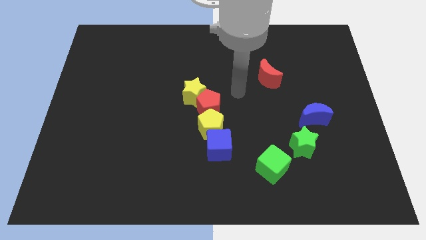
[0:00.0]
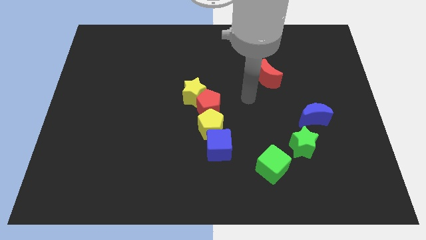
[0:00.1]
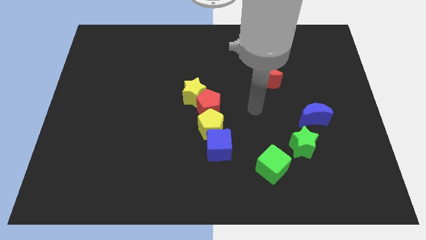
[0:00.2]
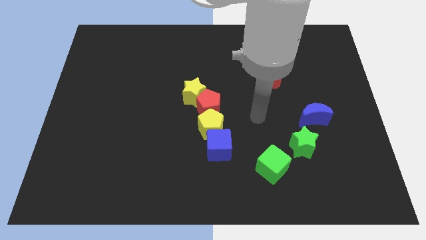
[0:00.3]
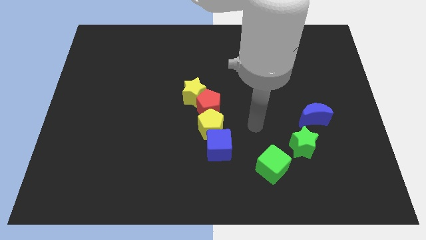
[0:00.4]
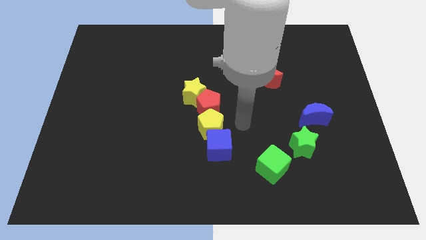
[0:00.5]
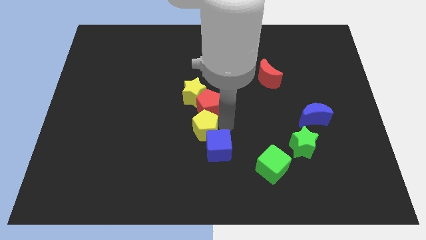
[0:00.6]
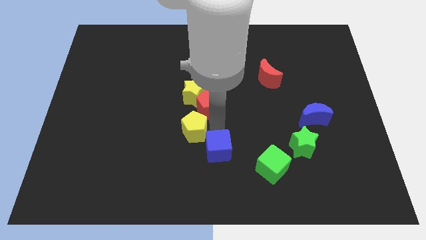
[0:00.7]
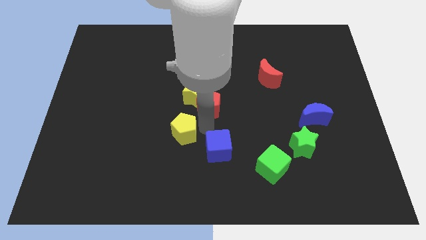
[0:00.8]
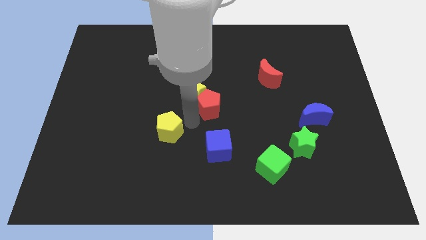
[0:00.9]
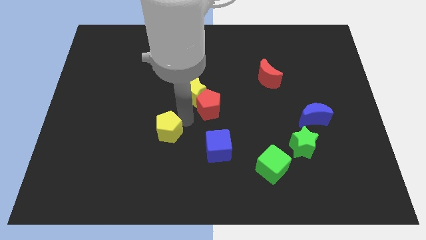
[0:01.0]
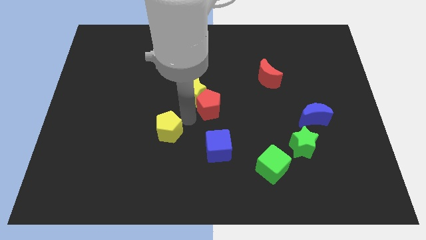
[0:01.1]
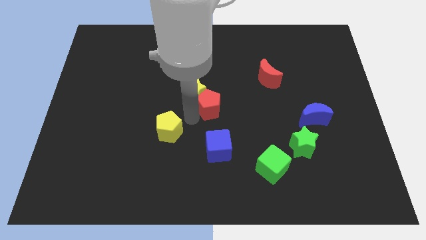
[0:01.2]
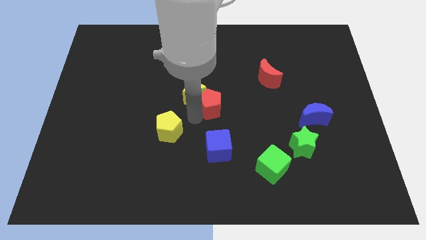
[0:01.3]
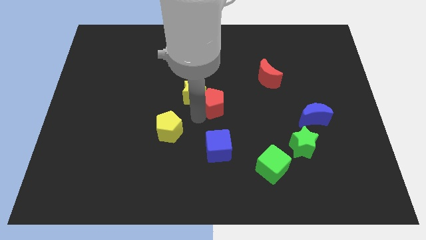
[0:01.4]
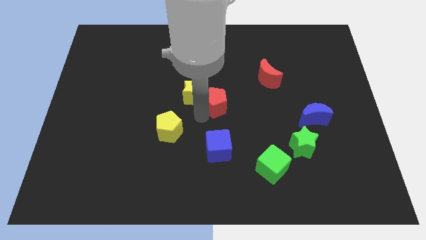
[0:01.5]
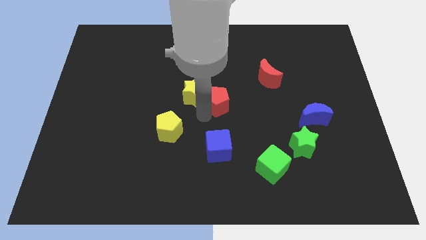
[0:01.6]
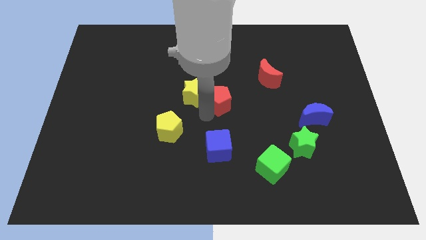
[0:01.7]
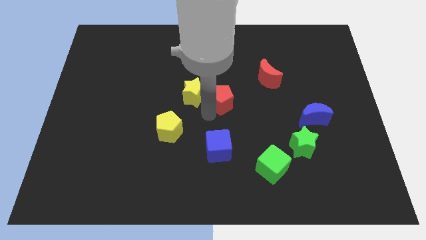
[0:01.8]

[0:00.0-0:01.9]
pull the red pentagon apart from the yellow pentagon and yellow star

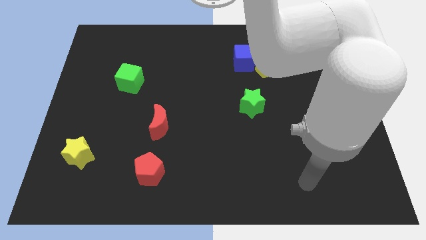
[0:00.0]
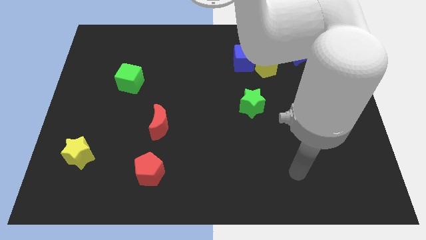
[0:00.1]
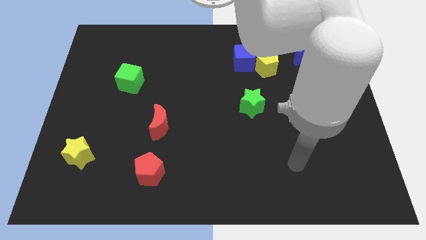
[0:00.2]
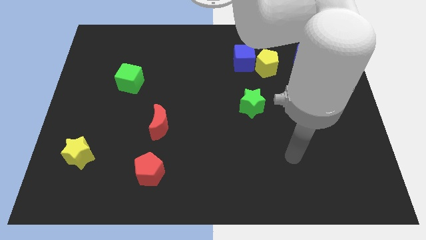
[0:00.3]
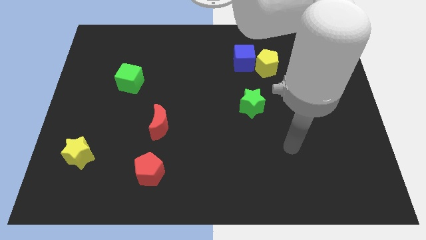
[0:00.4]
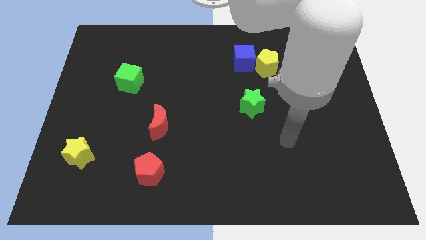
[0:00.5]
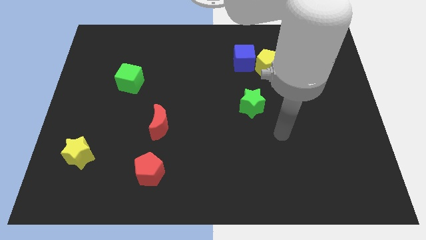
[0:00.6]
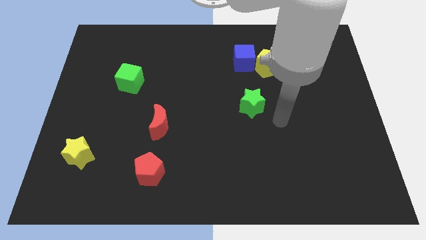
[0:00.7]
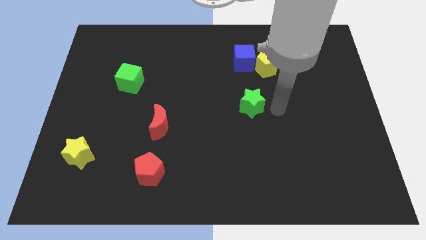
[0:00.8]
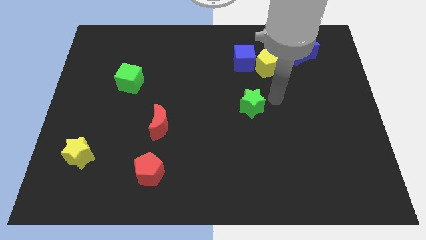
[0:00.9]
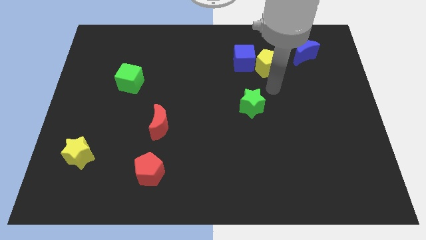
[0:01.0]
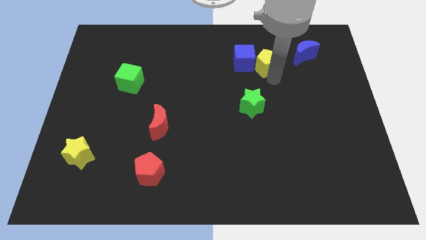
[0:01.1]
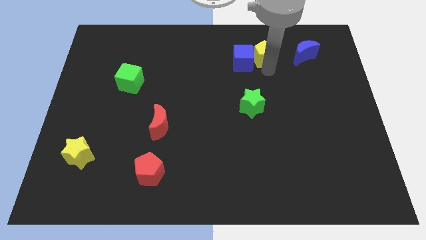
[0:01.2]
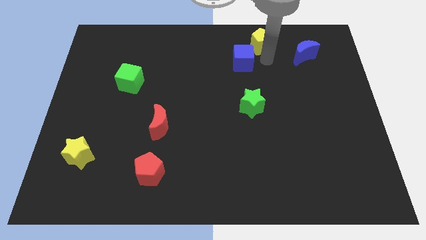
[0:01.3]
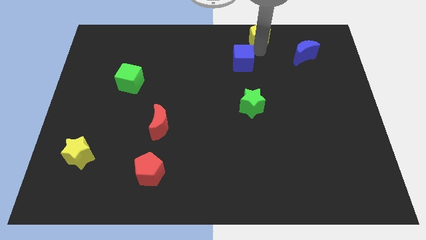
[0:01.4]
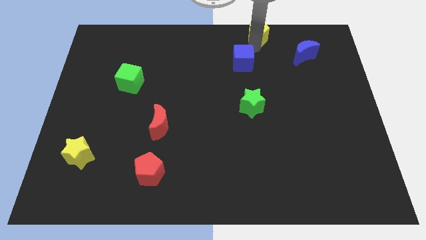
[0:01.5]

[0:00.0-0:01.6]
move the blue cube away from the yellow pentagon

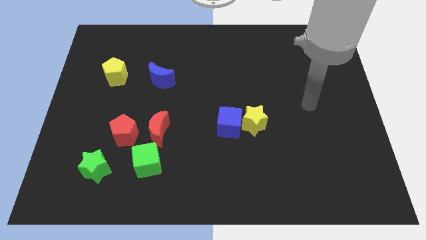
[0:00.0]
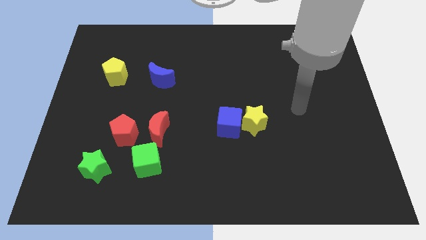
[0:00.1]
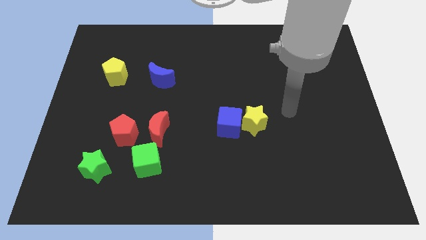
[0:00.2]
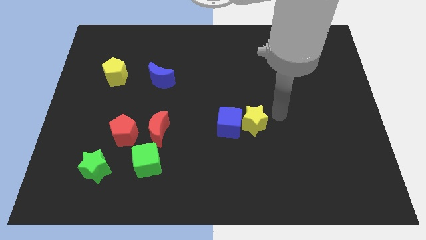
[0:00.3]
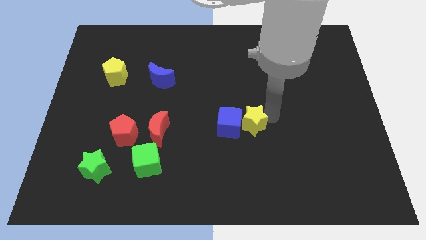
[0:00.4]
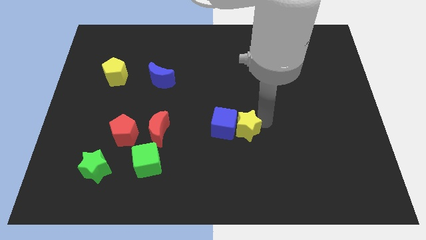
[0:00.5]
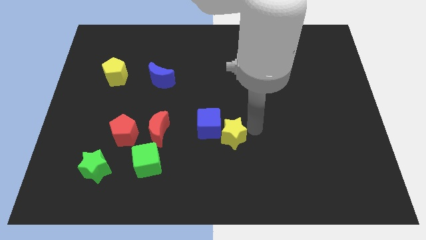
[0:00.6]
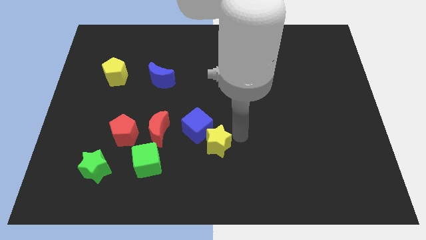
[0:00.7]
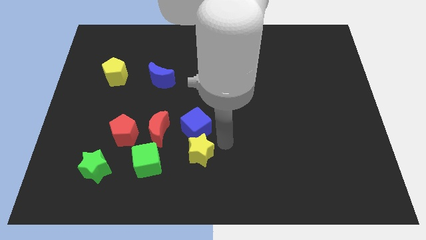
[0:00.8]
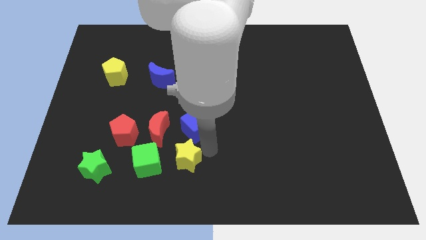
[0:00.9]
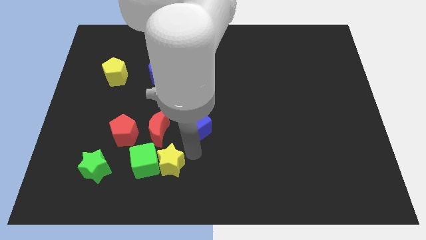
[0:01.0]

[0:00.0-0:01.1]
pull the blue cube apart from the yellow star

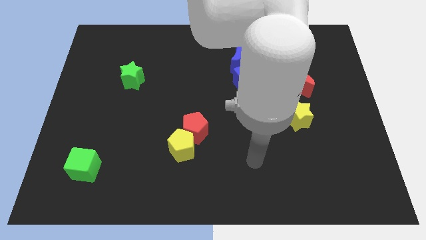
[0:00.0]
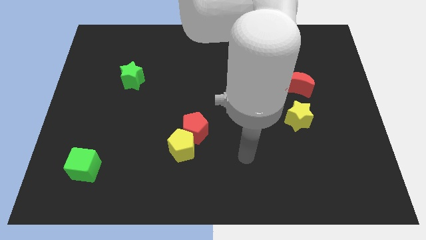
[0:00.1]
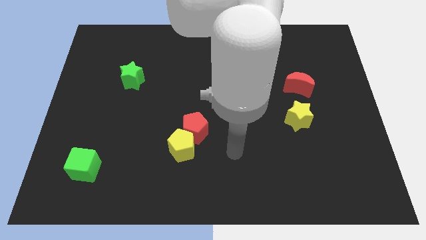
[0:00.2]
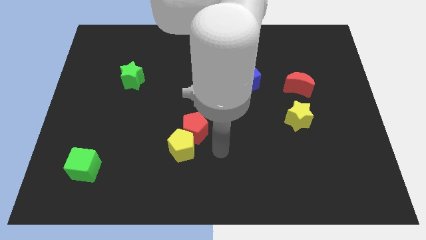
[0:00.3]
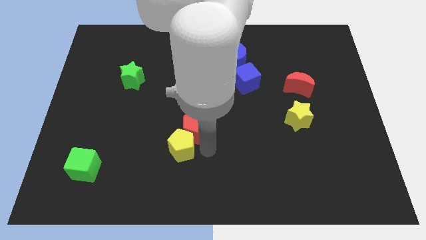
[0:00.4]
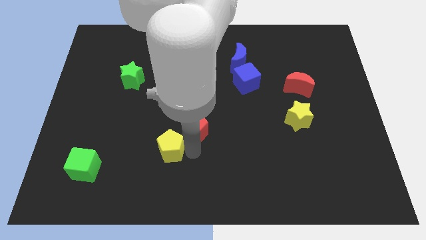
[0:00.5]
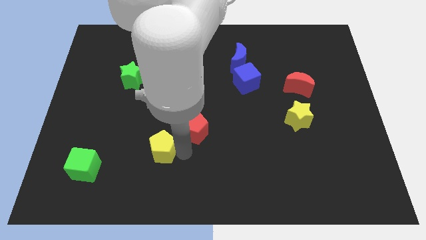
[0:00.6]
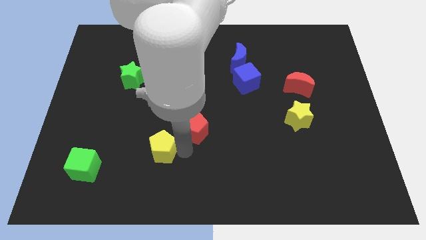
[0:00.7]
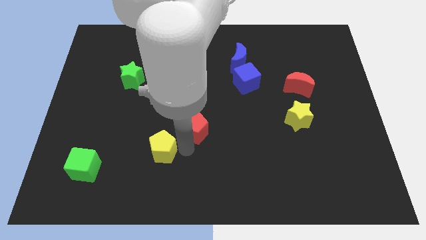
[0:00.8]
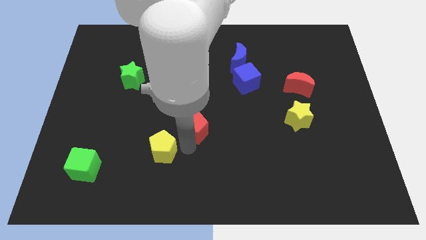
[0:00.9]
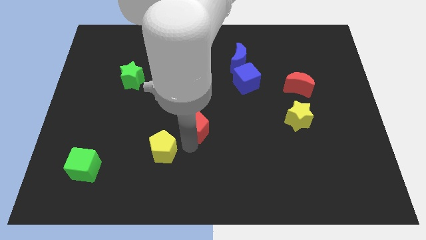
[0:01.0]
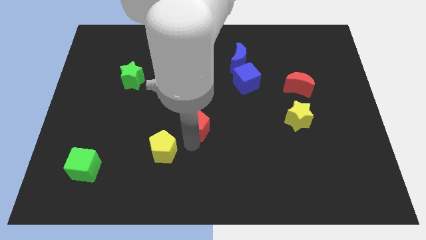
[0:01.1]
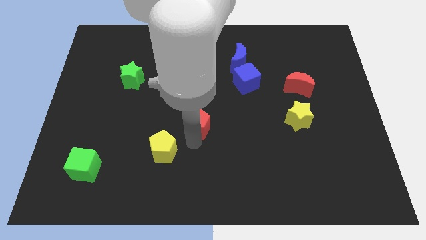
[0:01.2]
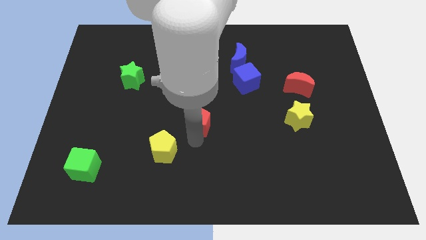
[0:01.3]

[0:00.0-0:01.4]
move the red pentagon away from the yellow pentagon

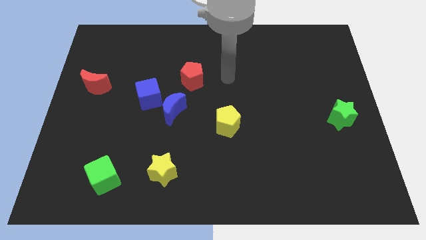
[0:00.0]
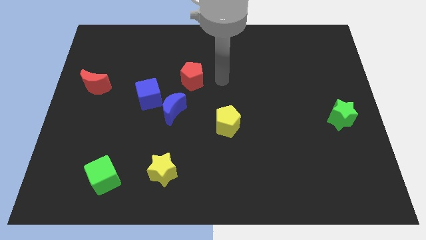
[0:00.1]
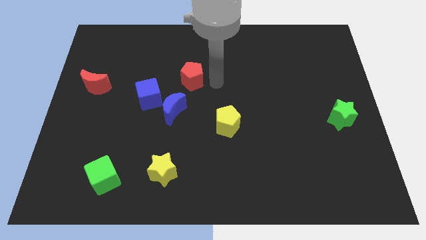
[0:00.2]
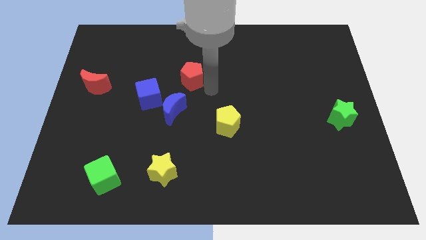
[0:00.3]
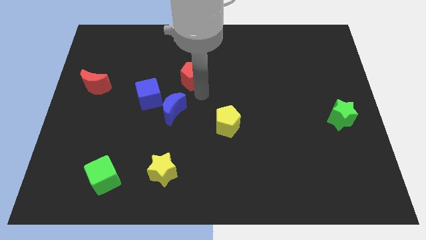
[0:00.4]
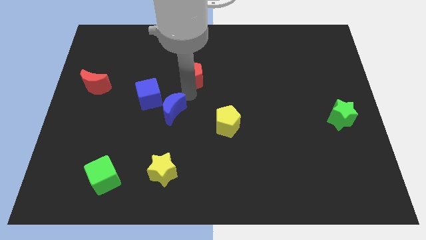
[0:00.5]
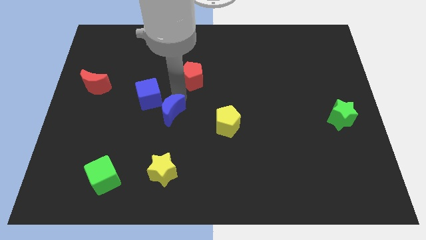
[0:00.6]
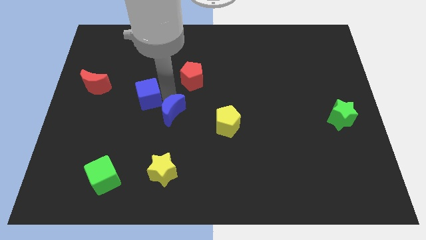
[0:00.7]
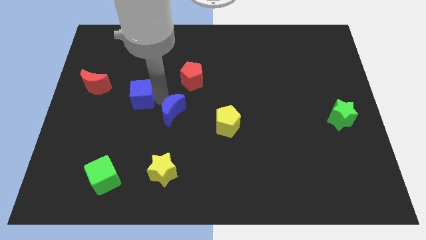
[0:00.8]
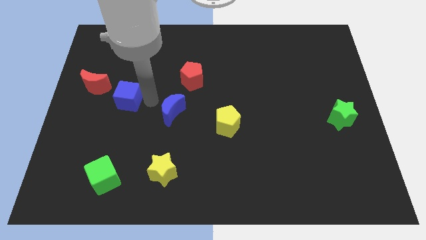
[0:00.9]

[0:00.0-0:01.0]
move the blue moon away from the blue cube

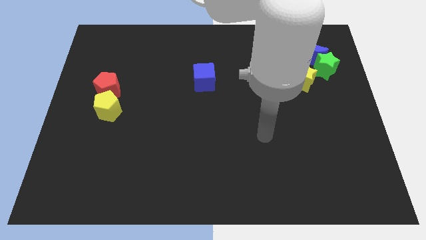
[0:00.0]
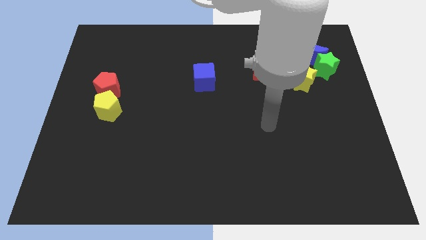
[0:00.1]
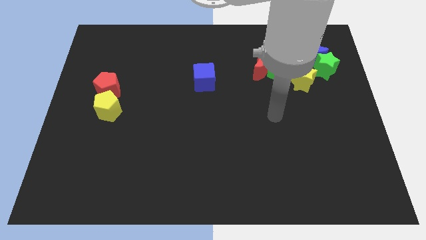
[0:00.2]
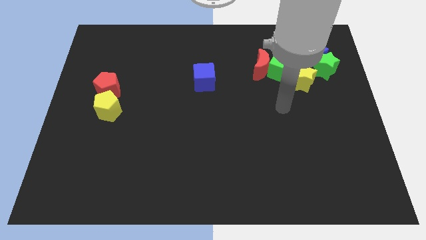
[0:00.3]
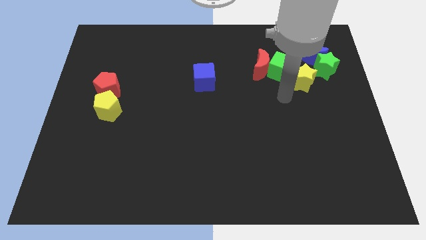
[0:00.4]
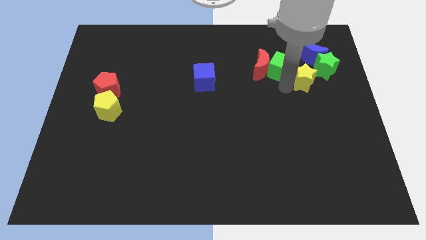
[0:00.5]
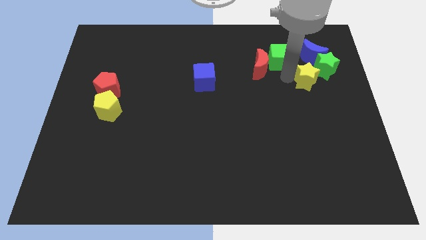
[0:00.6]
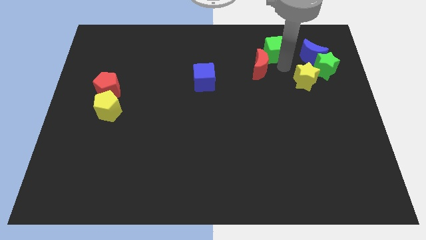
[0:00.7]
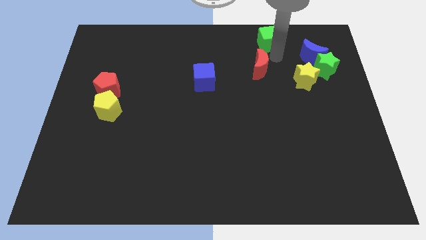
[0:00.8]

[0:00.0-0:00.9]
pull the red moon apart from the green cube

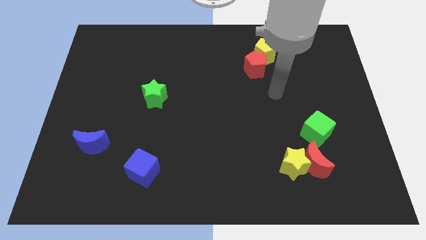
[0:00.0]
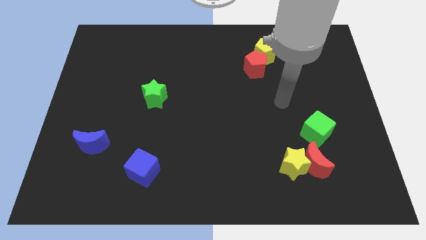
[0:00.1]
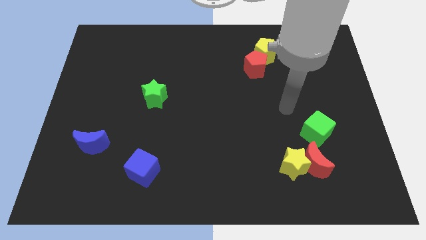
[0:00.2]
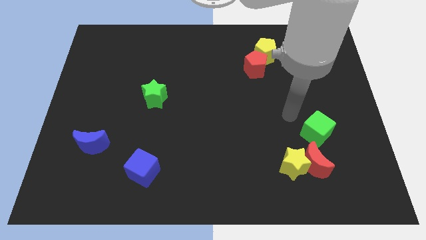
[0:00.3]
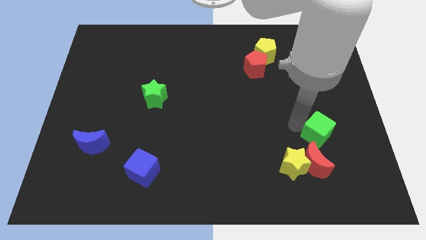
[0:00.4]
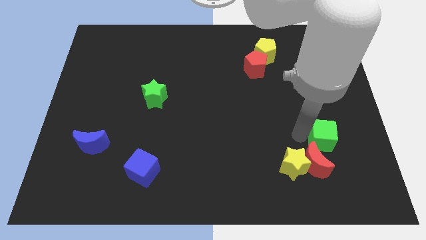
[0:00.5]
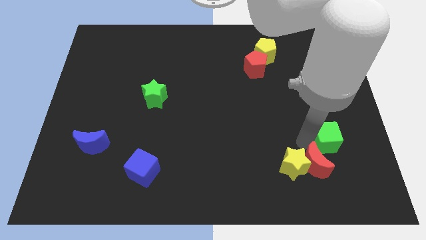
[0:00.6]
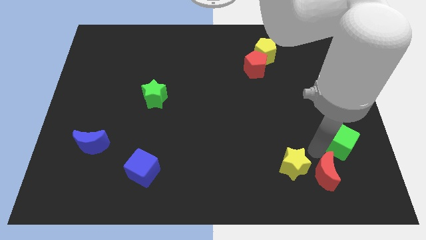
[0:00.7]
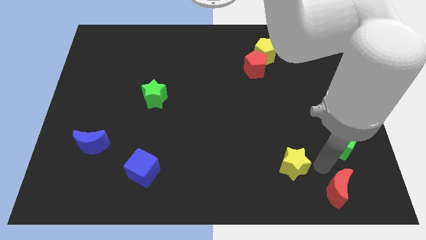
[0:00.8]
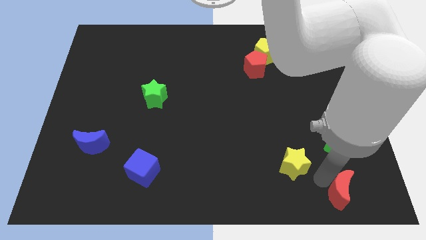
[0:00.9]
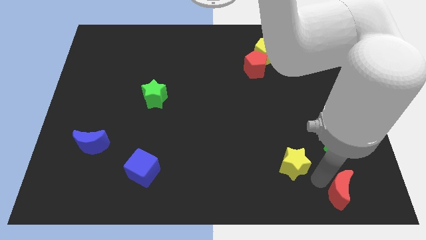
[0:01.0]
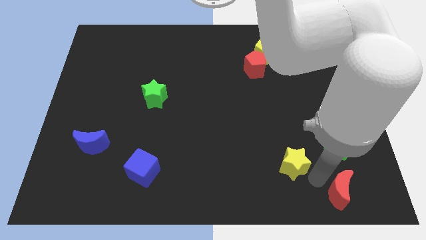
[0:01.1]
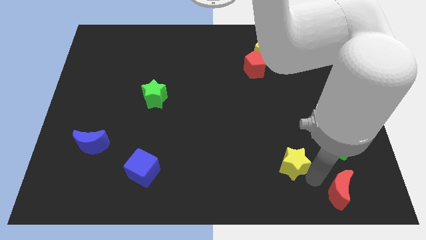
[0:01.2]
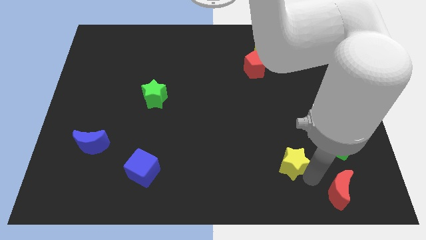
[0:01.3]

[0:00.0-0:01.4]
pull the yellow star apart from the red moon
